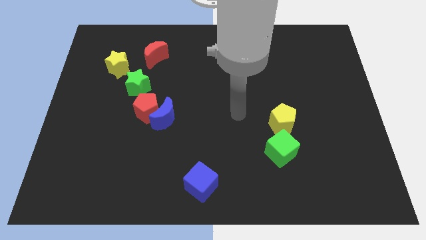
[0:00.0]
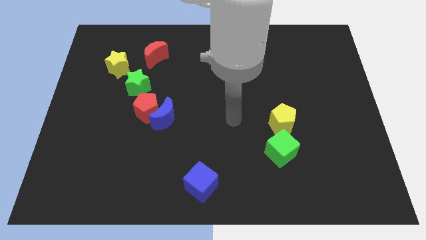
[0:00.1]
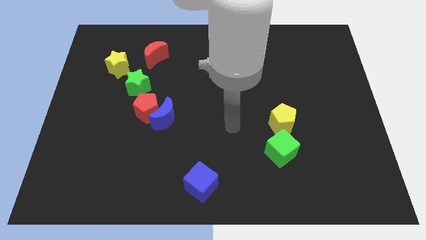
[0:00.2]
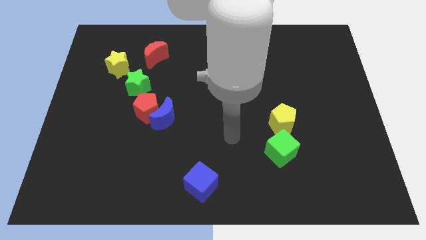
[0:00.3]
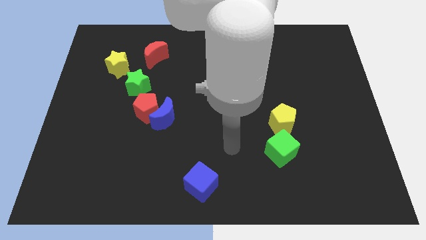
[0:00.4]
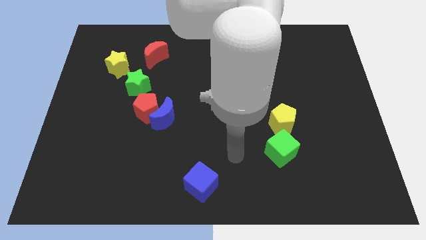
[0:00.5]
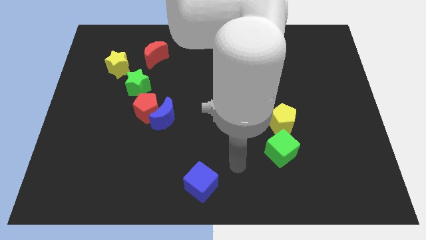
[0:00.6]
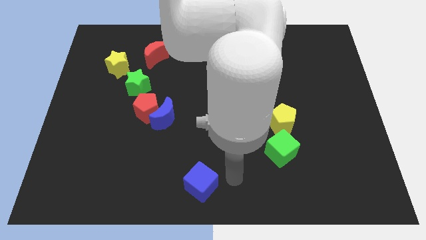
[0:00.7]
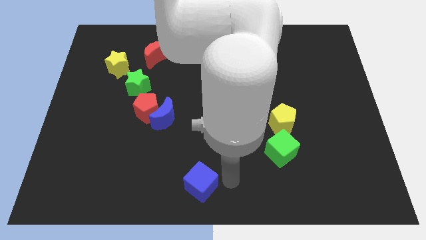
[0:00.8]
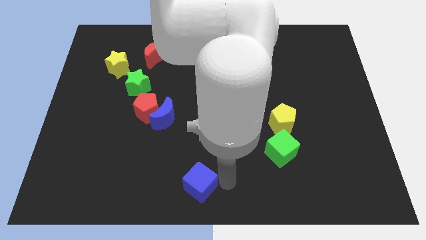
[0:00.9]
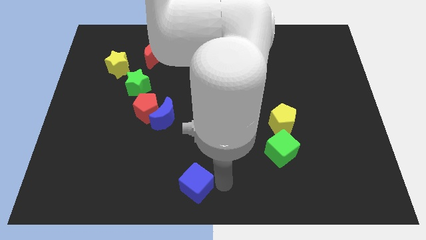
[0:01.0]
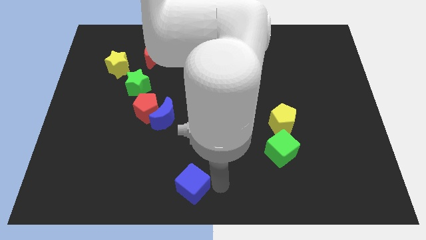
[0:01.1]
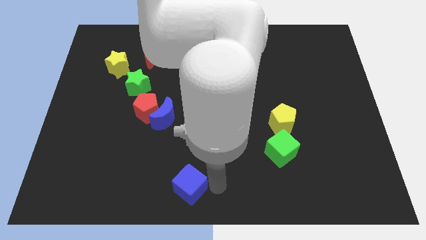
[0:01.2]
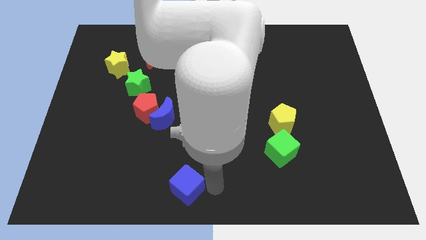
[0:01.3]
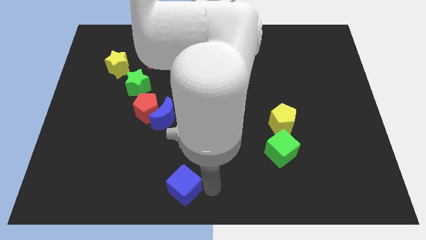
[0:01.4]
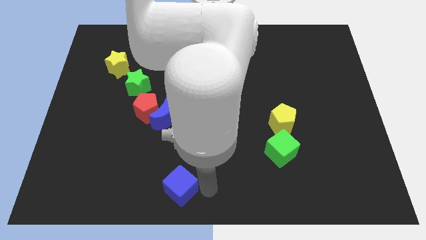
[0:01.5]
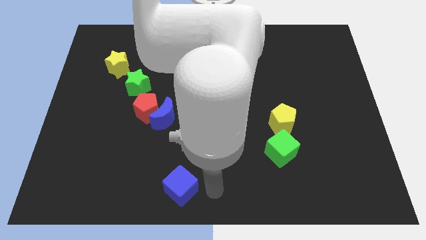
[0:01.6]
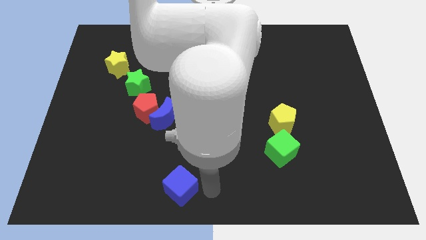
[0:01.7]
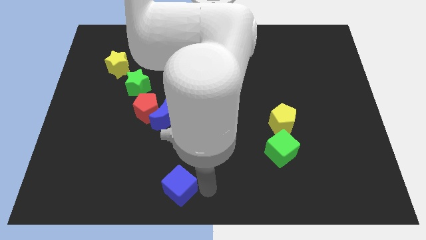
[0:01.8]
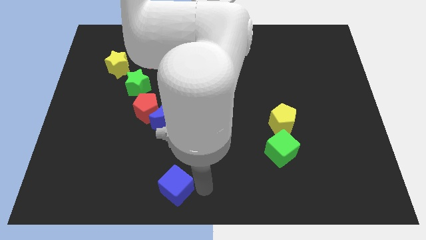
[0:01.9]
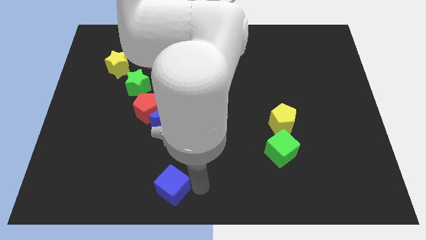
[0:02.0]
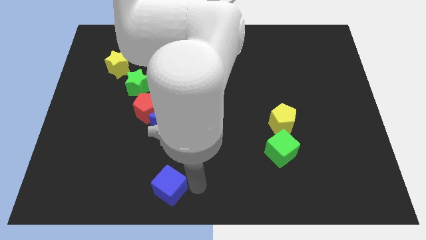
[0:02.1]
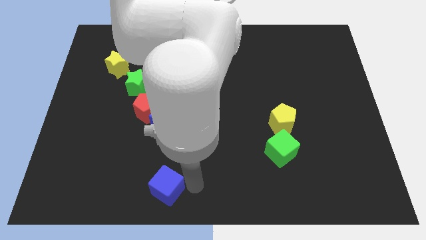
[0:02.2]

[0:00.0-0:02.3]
slide the blue cube left a little

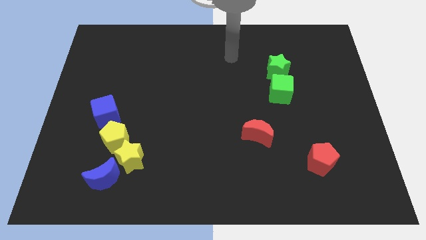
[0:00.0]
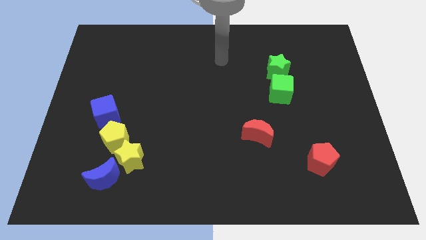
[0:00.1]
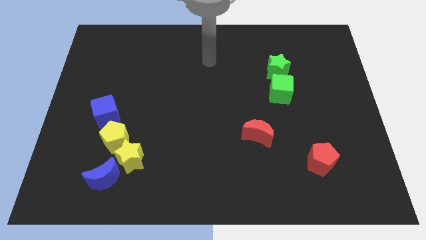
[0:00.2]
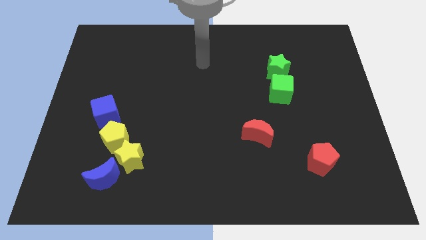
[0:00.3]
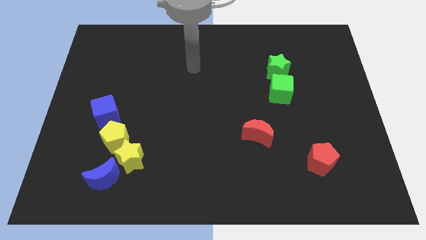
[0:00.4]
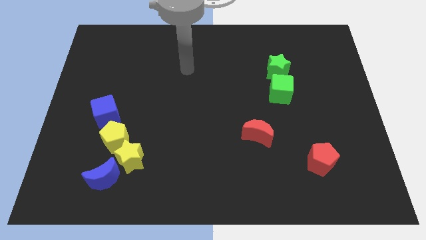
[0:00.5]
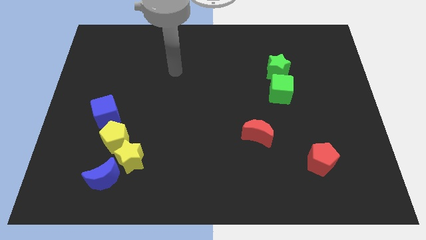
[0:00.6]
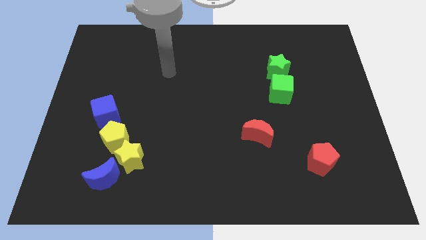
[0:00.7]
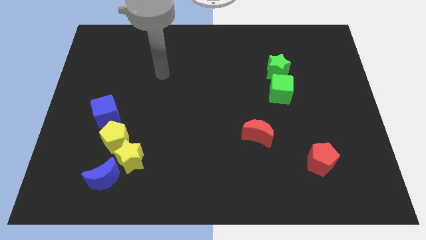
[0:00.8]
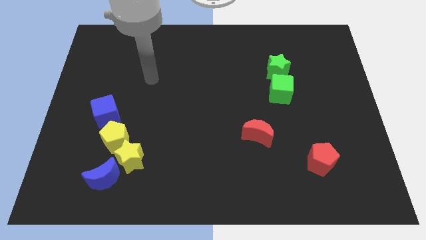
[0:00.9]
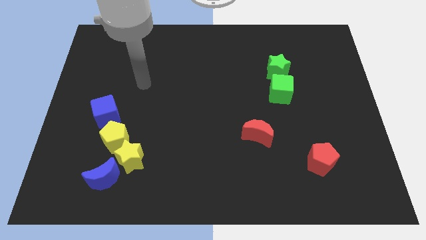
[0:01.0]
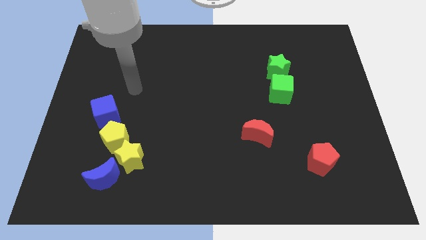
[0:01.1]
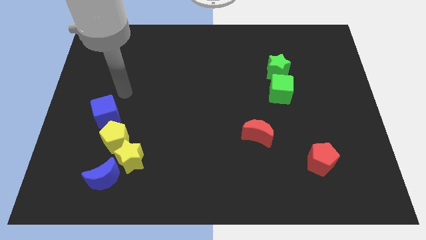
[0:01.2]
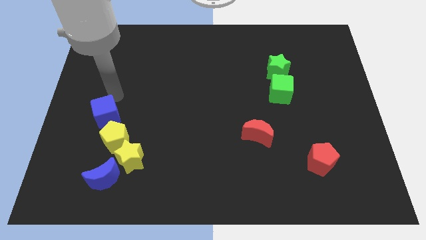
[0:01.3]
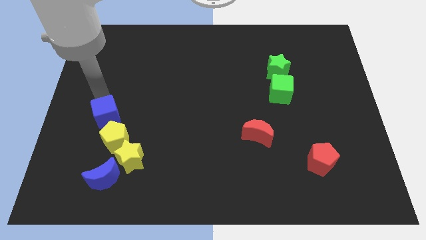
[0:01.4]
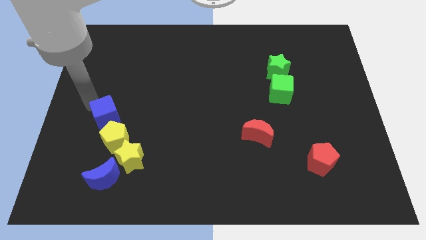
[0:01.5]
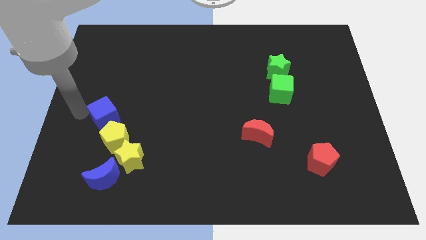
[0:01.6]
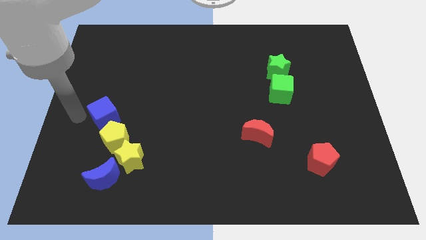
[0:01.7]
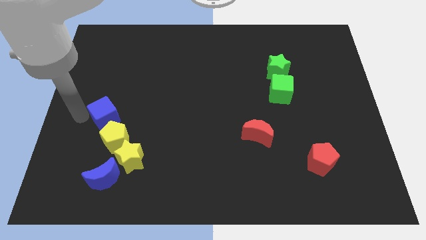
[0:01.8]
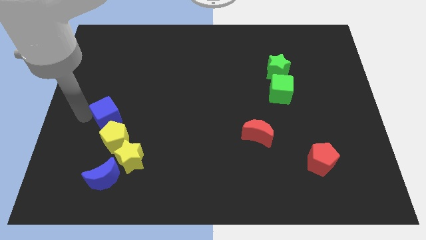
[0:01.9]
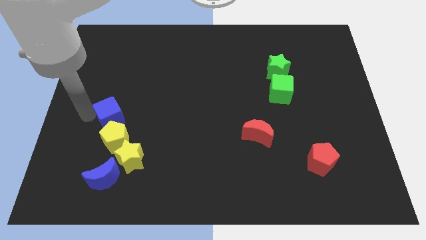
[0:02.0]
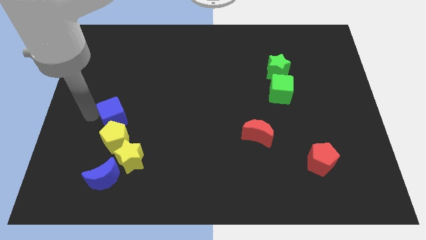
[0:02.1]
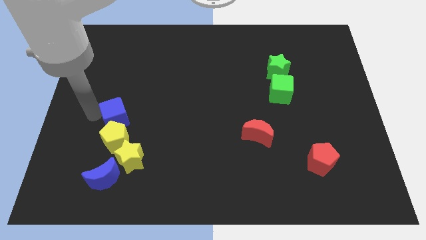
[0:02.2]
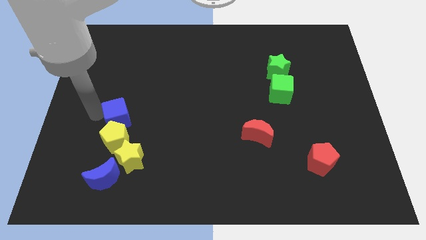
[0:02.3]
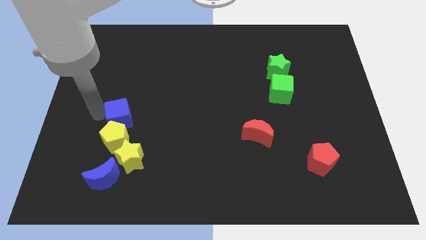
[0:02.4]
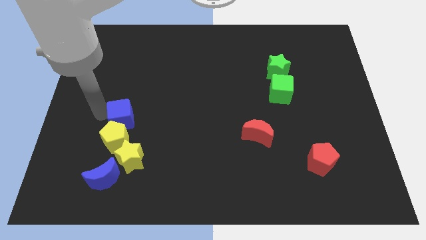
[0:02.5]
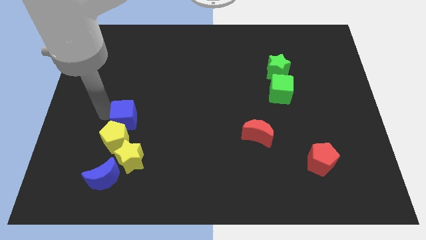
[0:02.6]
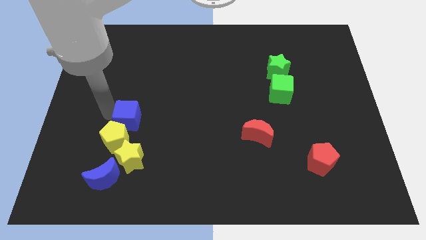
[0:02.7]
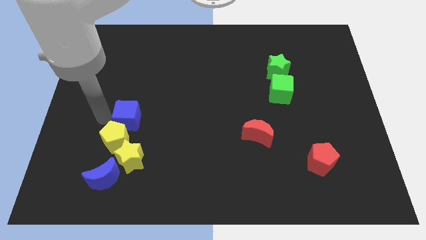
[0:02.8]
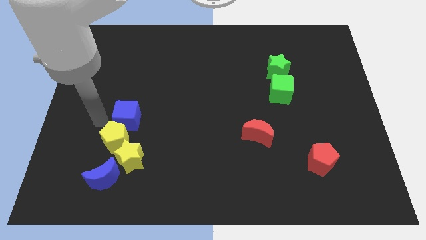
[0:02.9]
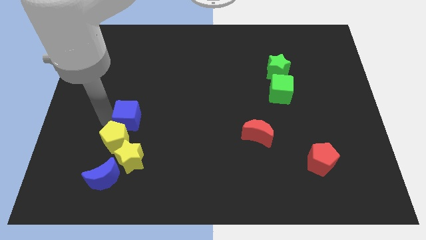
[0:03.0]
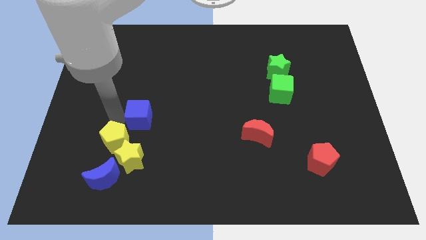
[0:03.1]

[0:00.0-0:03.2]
move the blue cube right somewhat

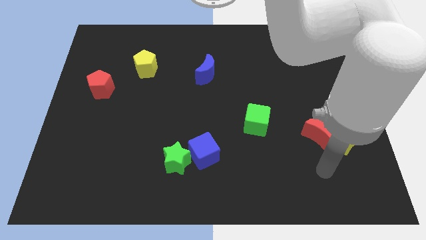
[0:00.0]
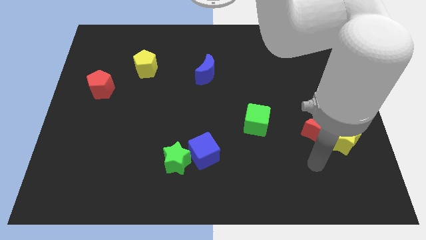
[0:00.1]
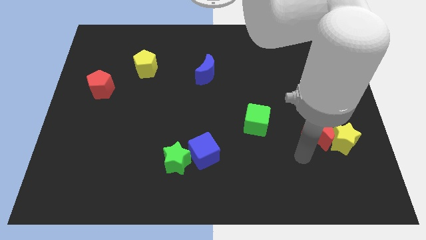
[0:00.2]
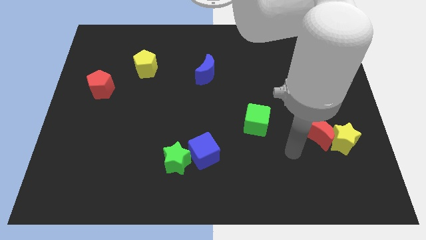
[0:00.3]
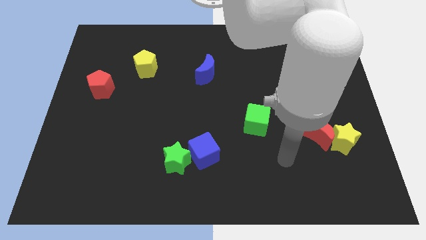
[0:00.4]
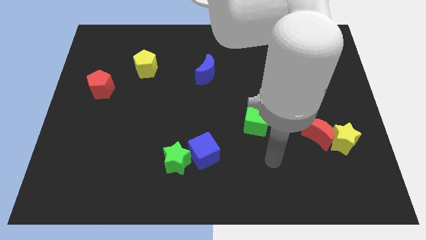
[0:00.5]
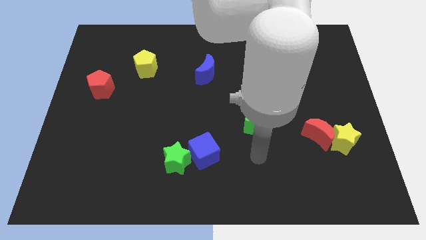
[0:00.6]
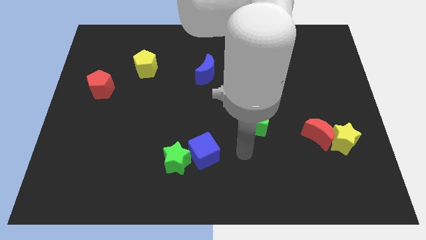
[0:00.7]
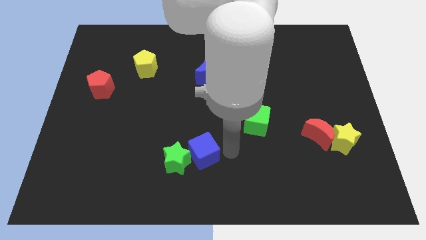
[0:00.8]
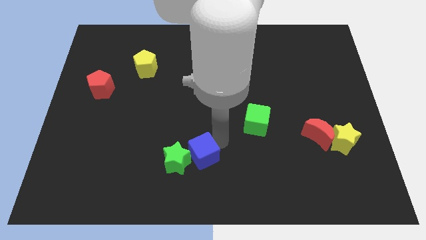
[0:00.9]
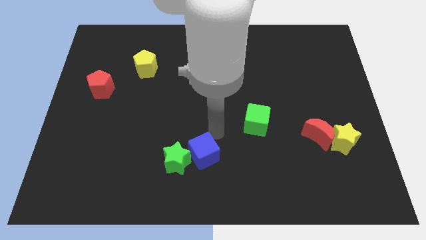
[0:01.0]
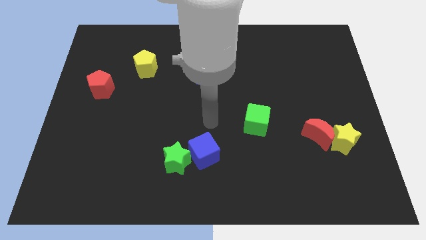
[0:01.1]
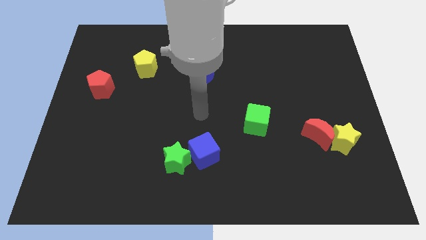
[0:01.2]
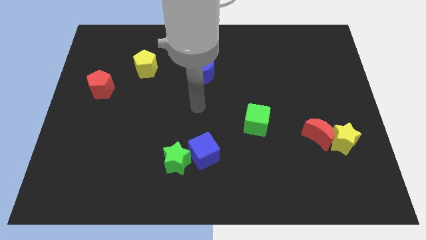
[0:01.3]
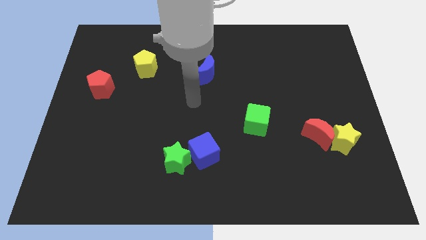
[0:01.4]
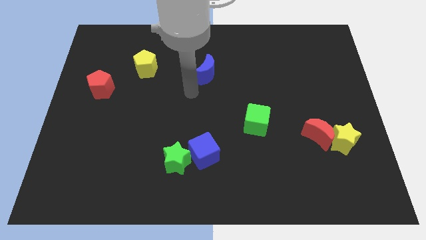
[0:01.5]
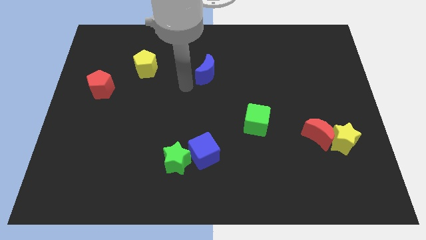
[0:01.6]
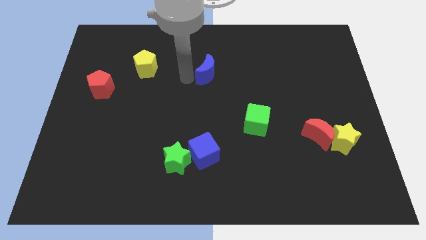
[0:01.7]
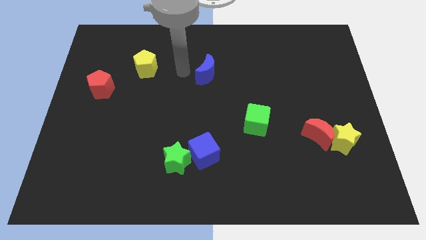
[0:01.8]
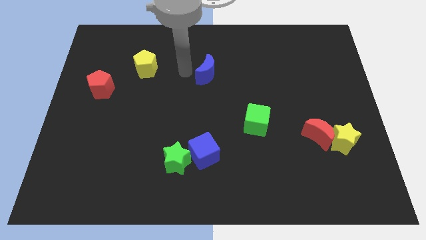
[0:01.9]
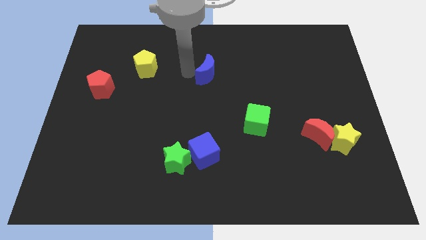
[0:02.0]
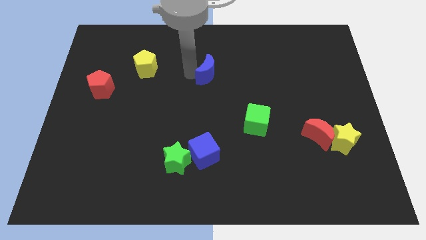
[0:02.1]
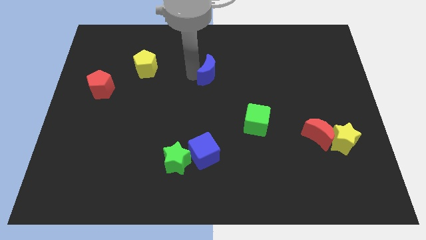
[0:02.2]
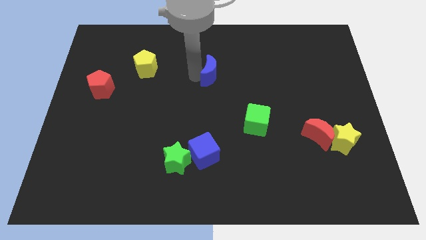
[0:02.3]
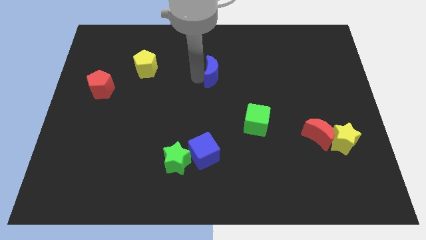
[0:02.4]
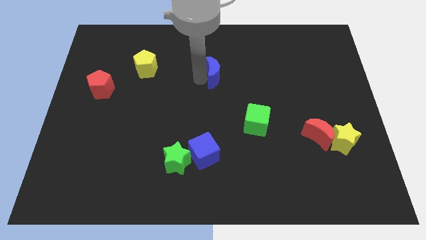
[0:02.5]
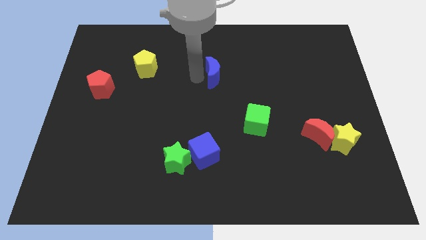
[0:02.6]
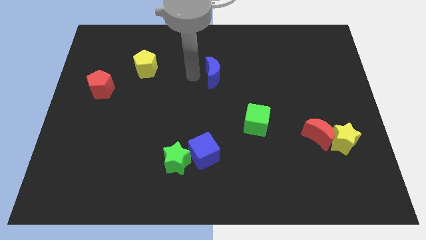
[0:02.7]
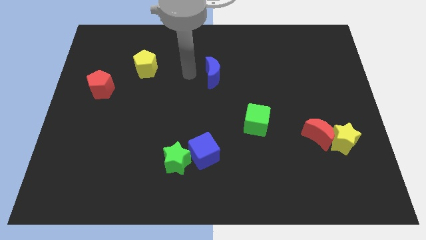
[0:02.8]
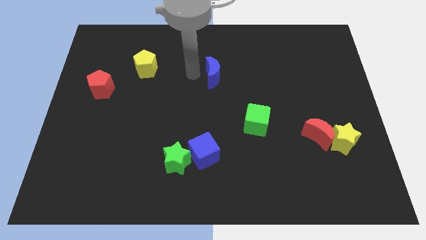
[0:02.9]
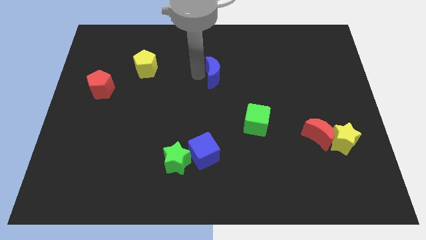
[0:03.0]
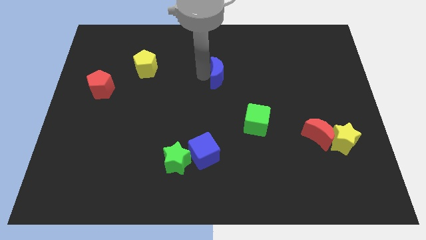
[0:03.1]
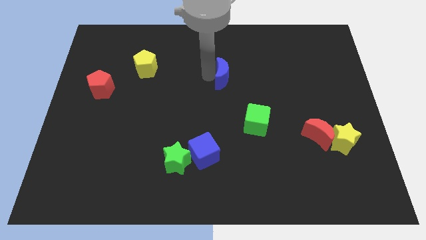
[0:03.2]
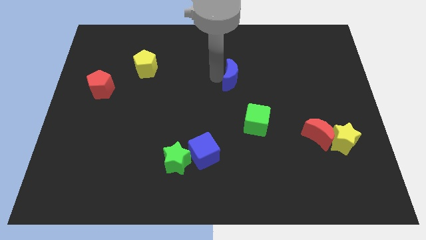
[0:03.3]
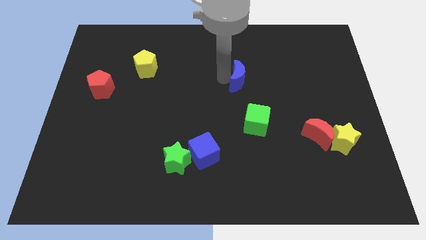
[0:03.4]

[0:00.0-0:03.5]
move the blue moon right a bit
